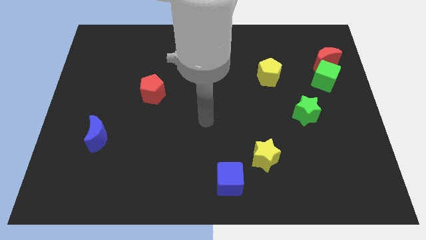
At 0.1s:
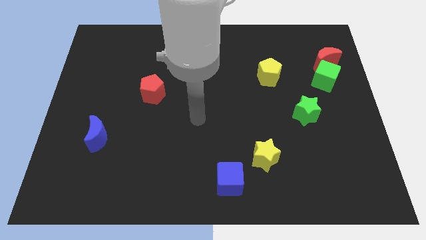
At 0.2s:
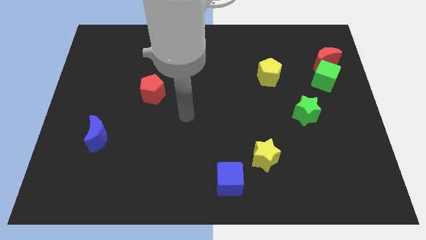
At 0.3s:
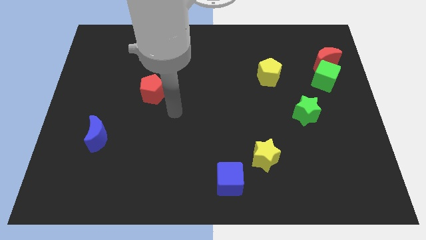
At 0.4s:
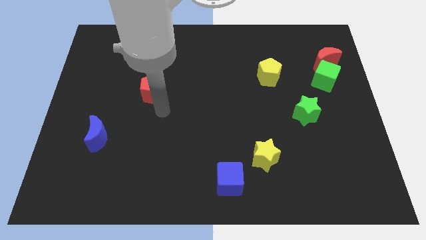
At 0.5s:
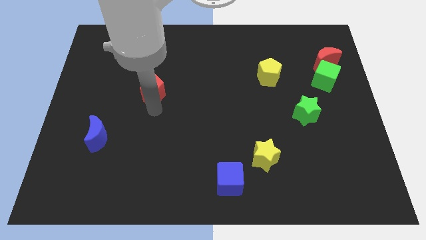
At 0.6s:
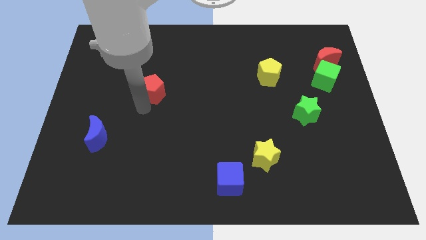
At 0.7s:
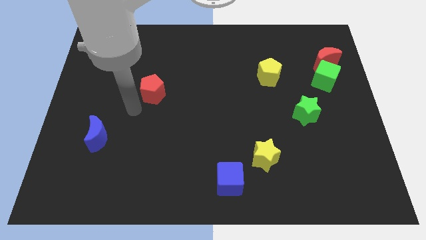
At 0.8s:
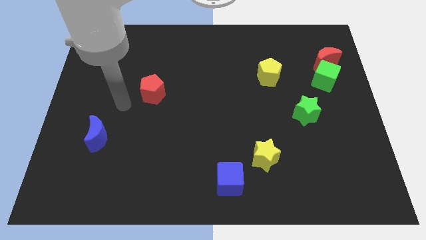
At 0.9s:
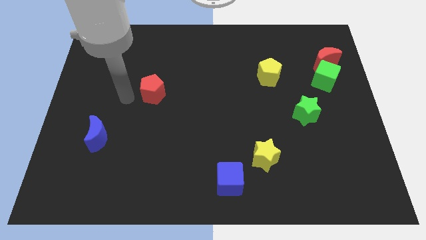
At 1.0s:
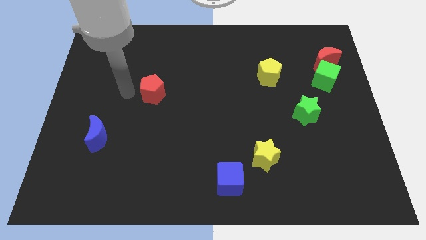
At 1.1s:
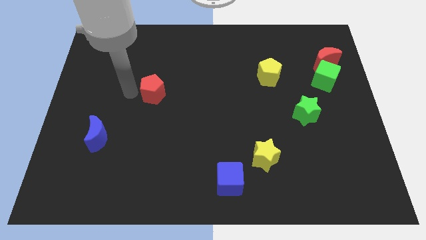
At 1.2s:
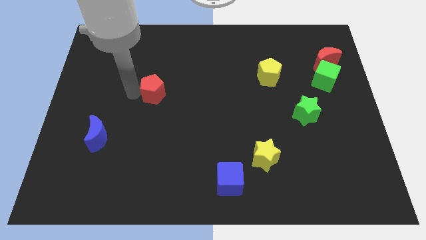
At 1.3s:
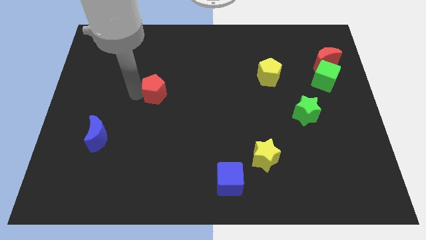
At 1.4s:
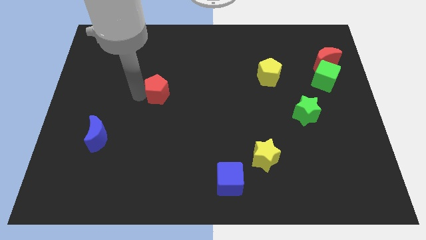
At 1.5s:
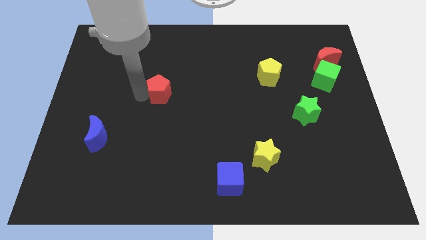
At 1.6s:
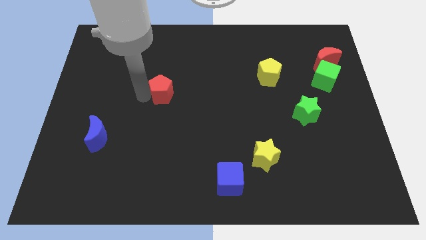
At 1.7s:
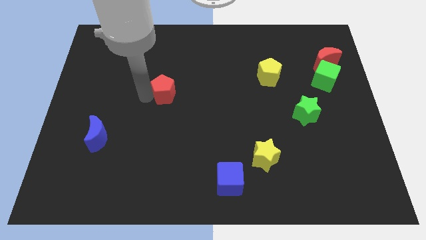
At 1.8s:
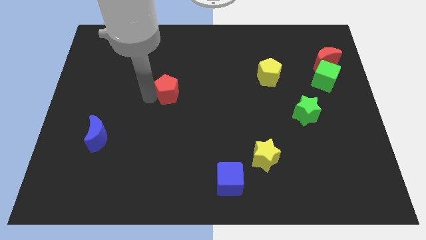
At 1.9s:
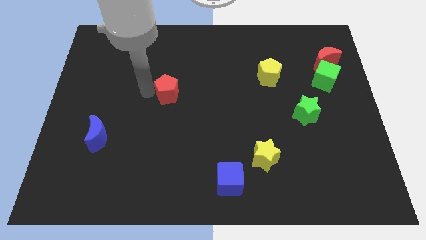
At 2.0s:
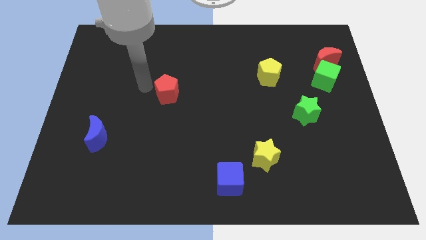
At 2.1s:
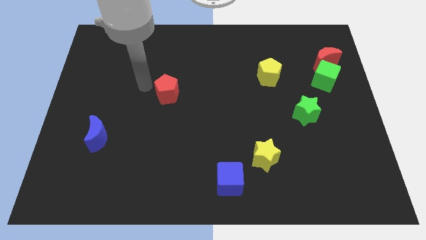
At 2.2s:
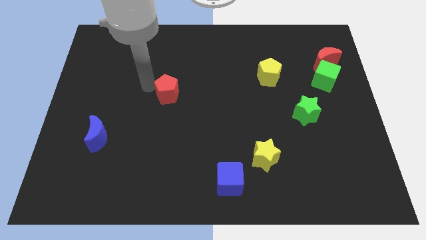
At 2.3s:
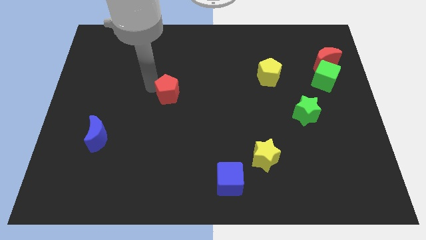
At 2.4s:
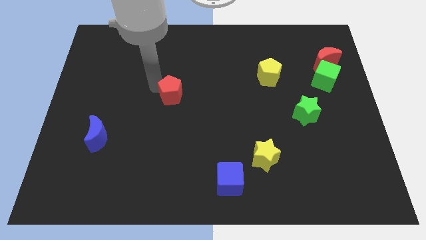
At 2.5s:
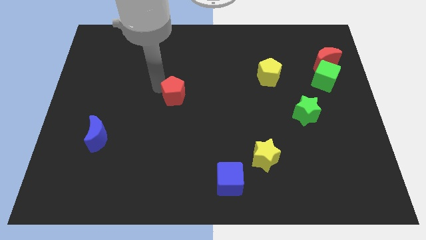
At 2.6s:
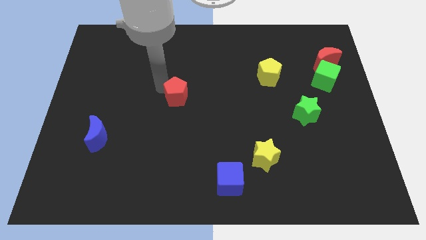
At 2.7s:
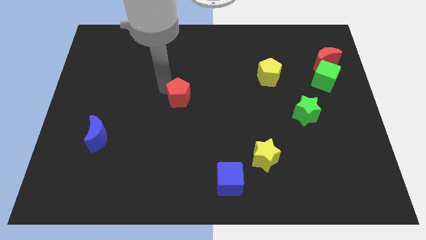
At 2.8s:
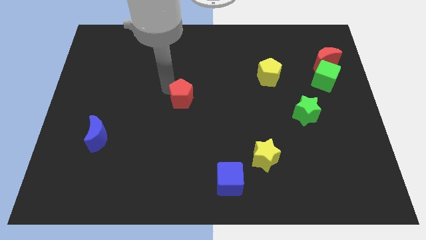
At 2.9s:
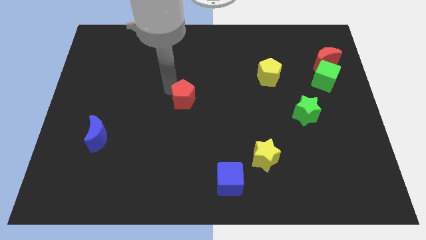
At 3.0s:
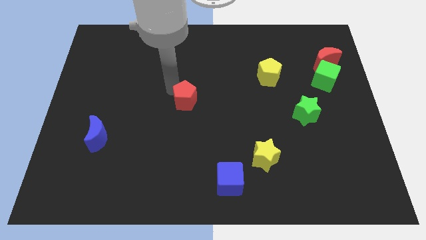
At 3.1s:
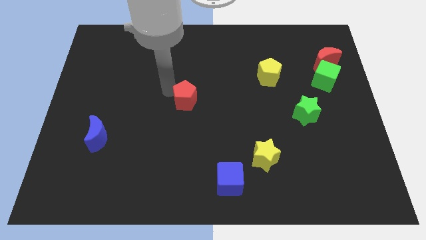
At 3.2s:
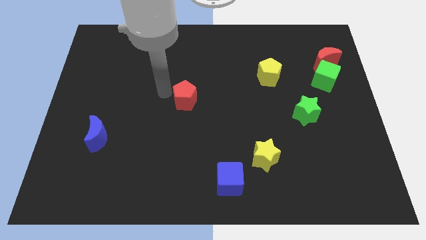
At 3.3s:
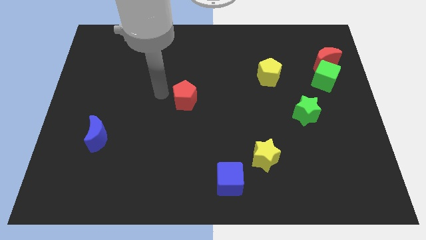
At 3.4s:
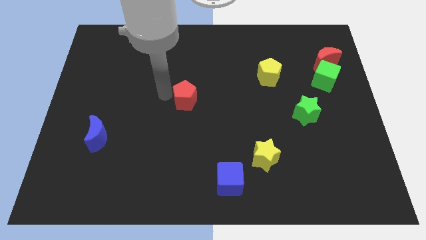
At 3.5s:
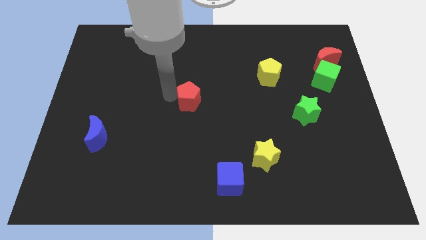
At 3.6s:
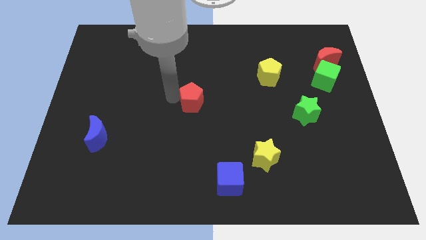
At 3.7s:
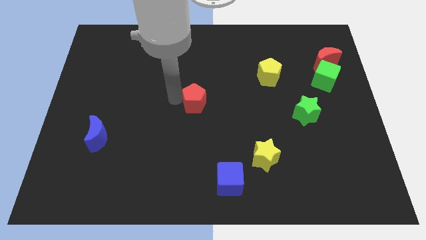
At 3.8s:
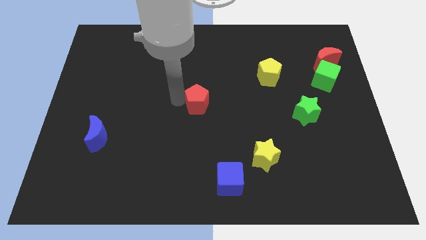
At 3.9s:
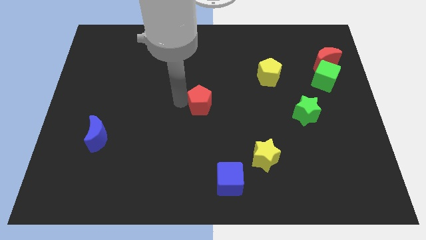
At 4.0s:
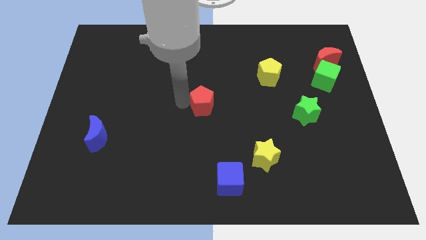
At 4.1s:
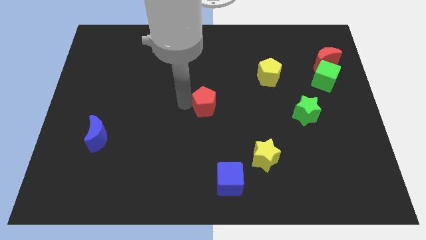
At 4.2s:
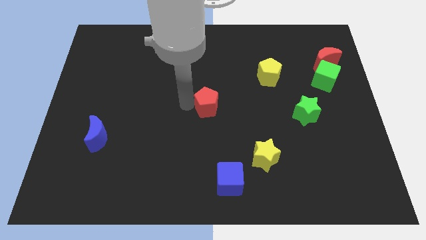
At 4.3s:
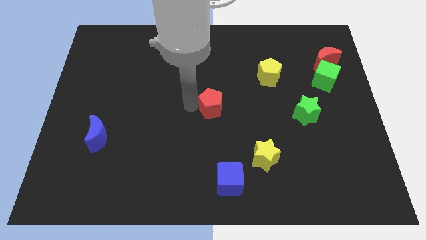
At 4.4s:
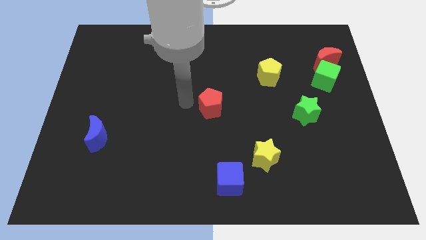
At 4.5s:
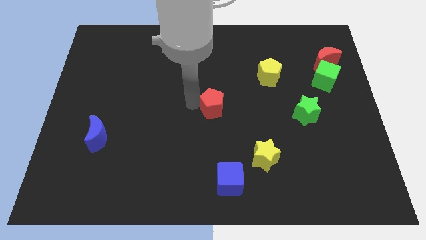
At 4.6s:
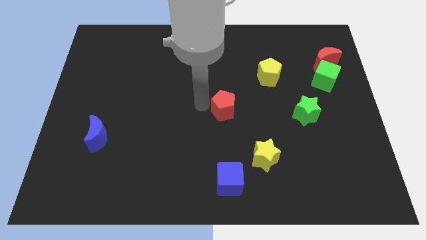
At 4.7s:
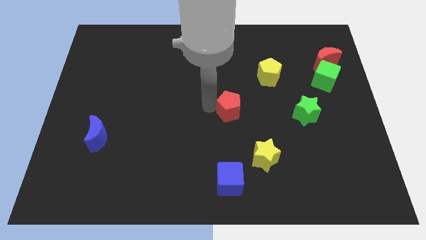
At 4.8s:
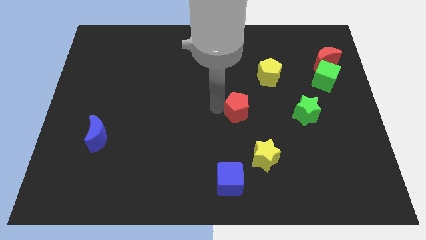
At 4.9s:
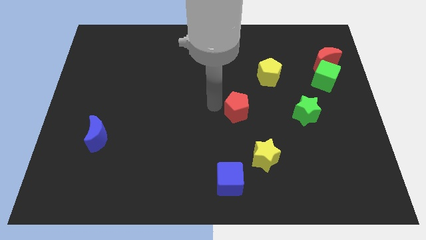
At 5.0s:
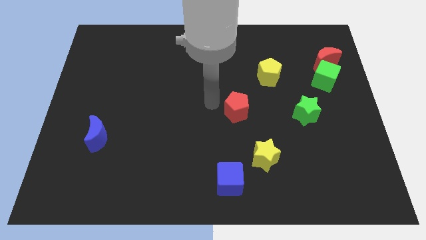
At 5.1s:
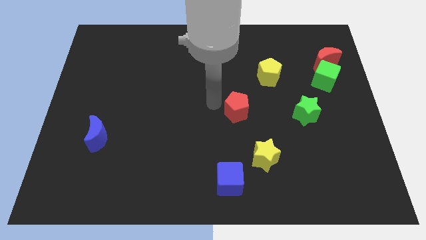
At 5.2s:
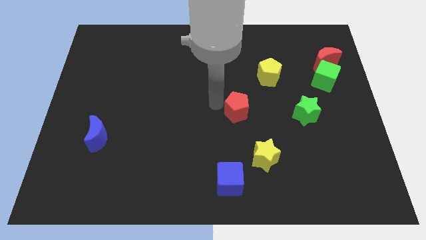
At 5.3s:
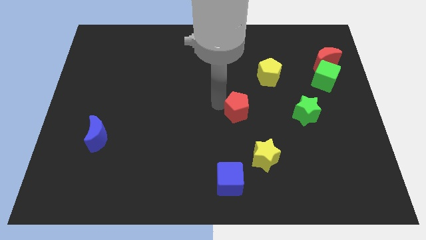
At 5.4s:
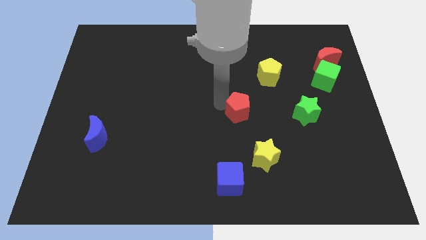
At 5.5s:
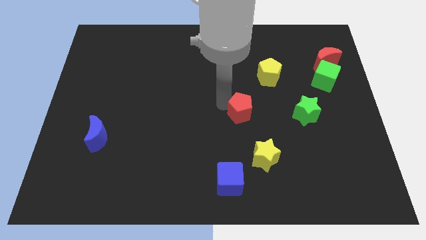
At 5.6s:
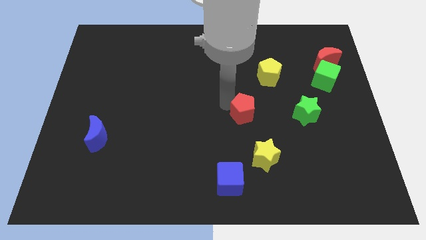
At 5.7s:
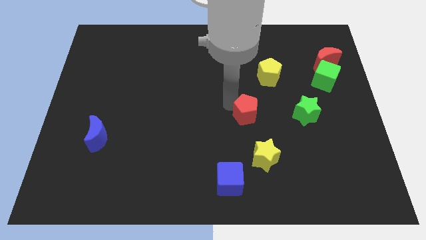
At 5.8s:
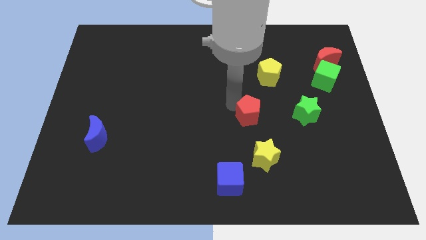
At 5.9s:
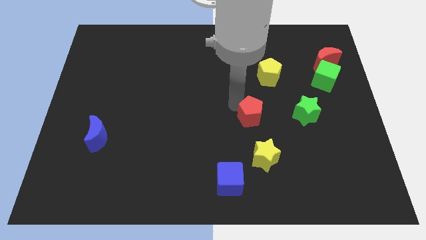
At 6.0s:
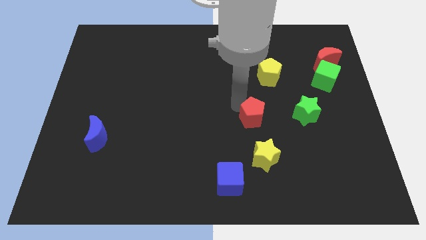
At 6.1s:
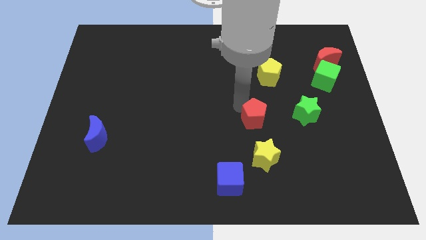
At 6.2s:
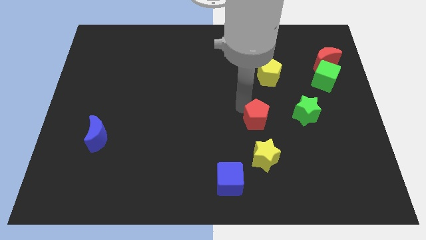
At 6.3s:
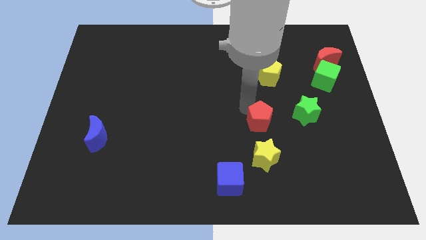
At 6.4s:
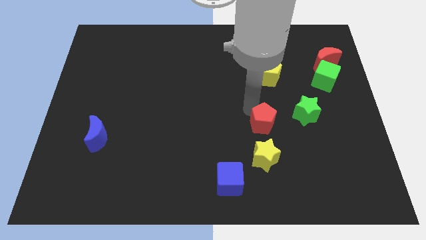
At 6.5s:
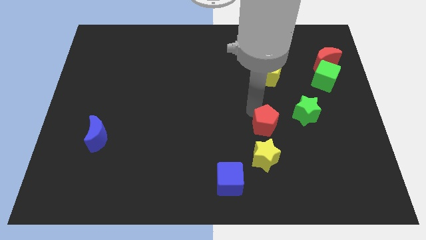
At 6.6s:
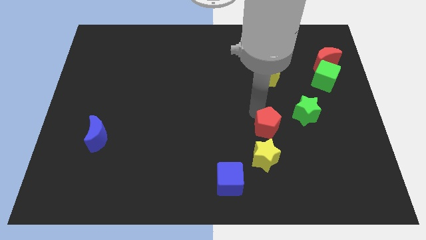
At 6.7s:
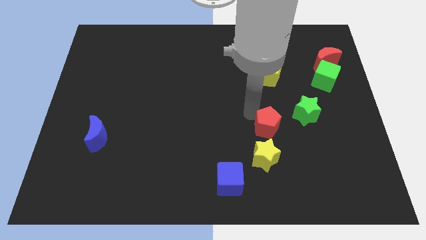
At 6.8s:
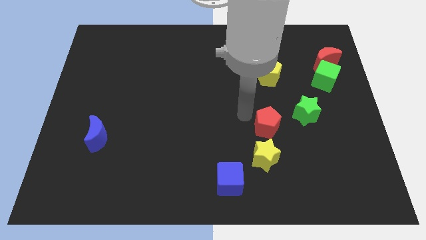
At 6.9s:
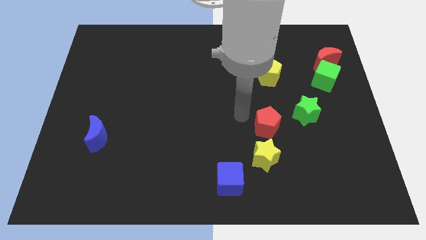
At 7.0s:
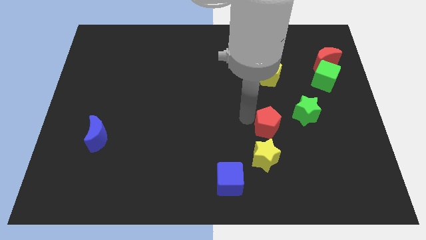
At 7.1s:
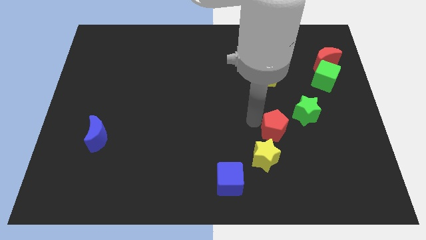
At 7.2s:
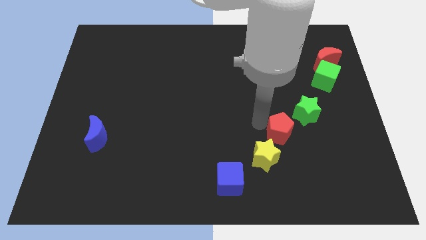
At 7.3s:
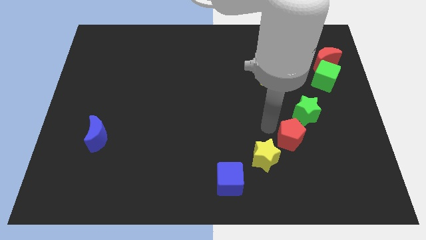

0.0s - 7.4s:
move the red pentagon to the bottom side of the green star
